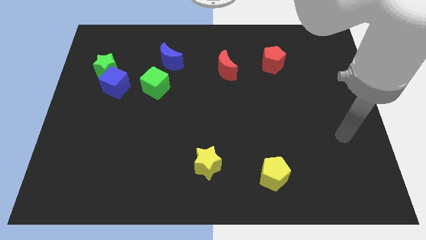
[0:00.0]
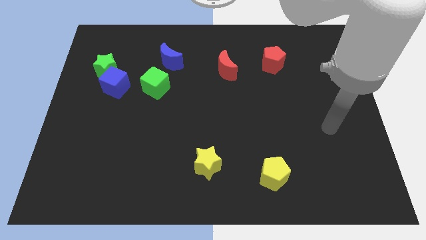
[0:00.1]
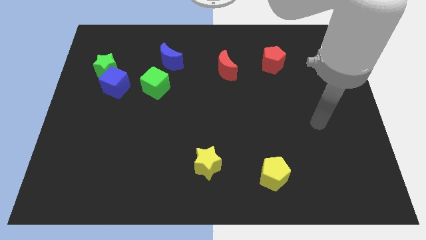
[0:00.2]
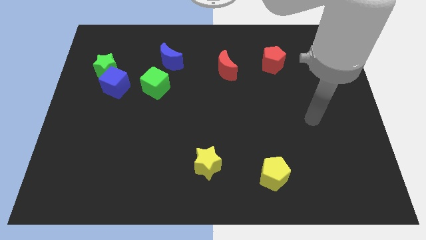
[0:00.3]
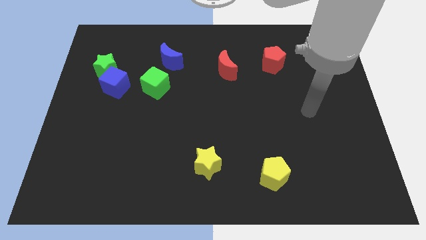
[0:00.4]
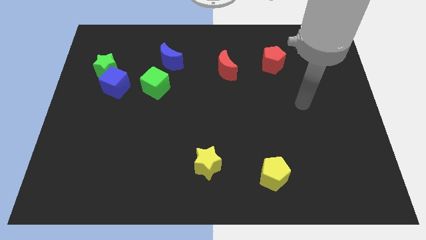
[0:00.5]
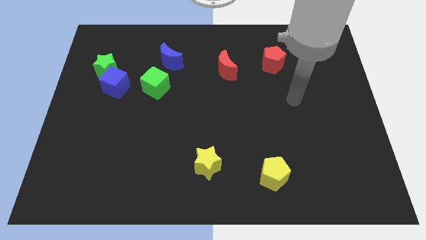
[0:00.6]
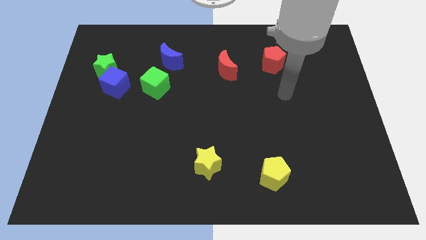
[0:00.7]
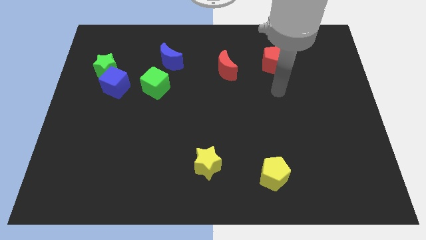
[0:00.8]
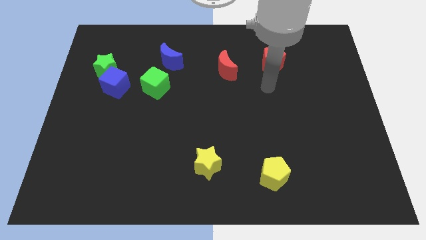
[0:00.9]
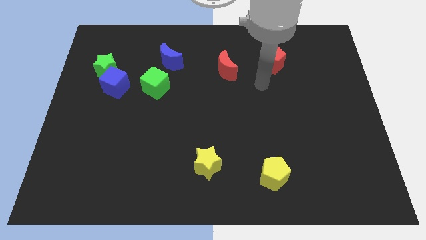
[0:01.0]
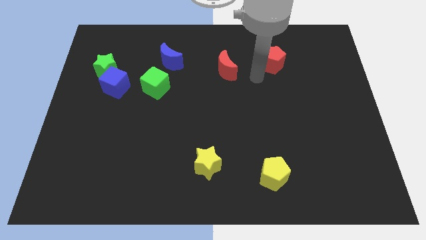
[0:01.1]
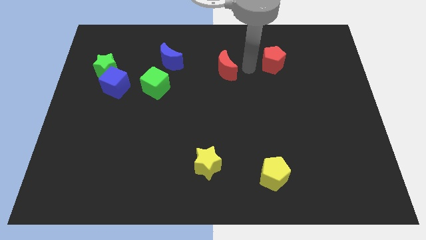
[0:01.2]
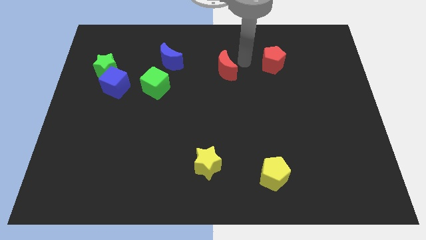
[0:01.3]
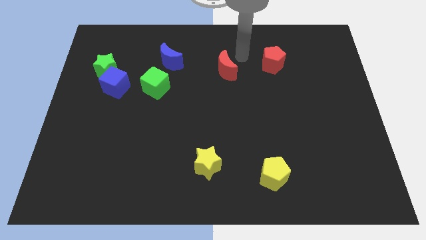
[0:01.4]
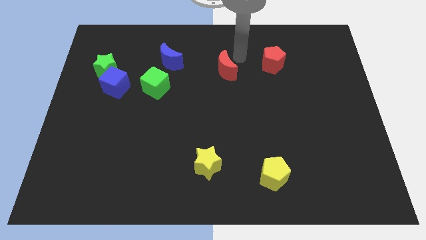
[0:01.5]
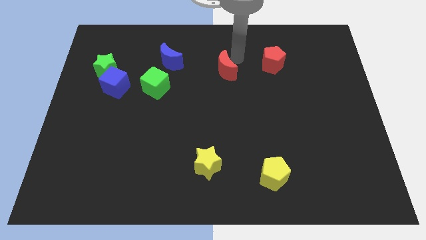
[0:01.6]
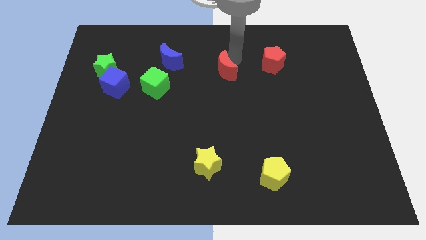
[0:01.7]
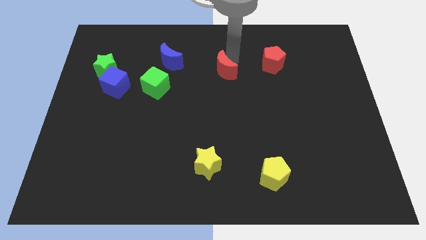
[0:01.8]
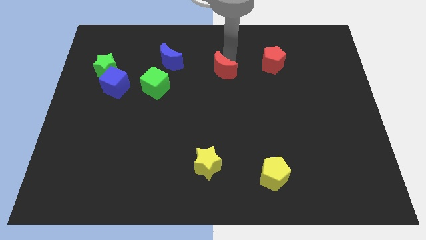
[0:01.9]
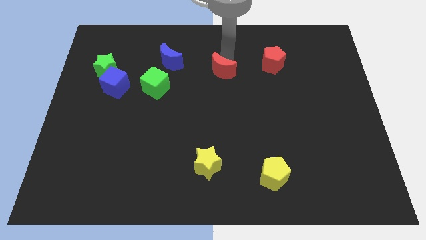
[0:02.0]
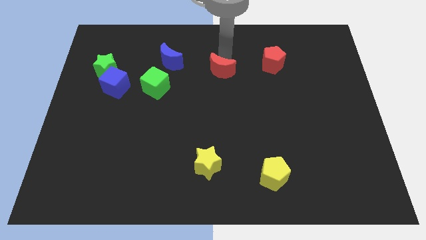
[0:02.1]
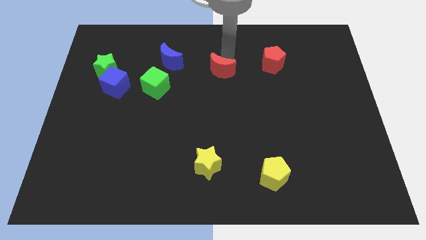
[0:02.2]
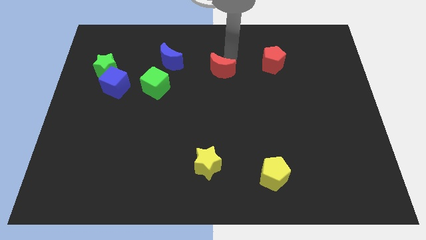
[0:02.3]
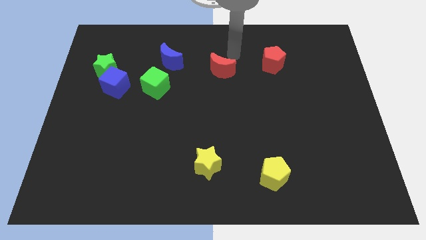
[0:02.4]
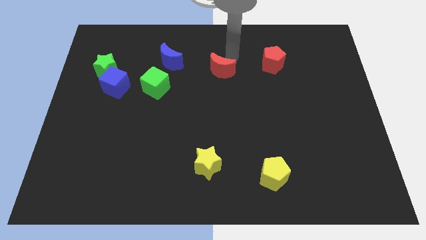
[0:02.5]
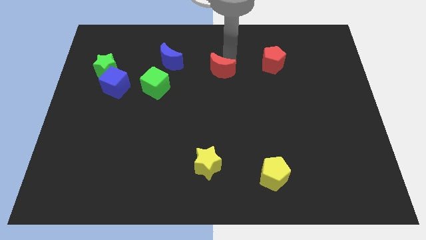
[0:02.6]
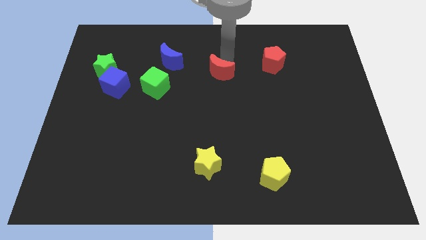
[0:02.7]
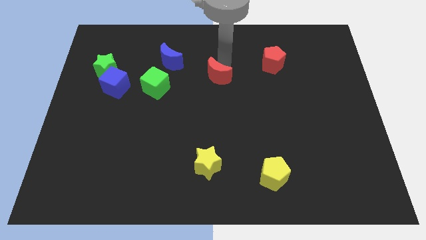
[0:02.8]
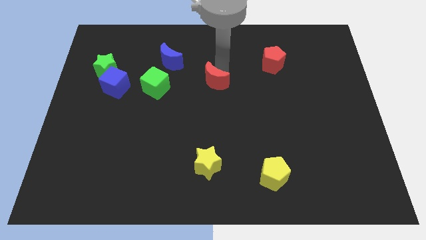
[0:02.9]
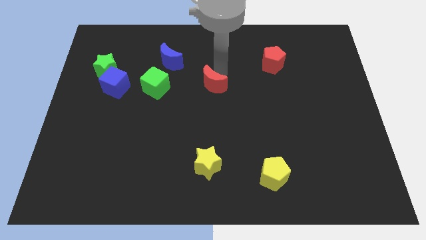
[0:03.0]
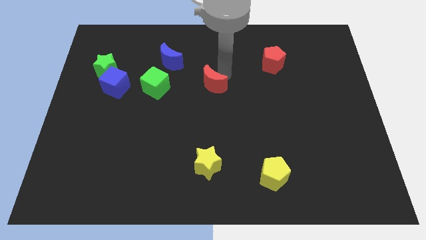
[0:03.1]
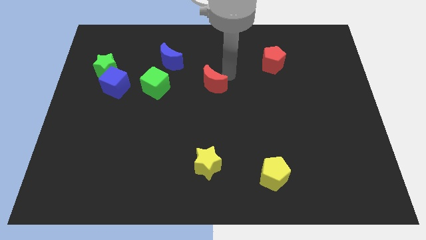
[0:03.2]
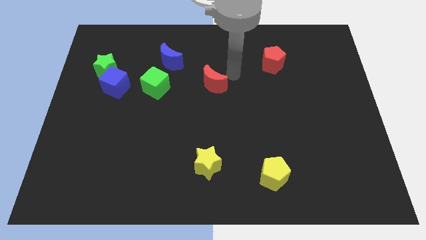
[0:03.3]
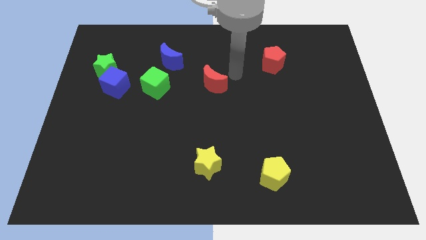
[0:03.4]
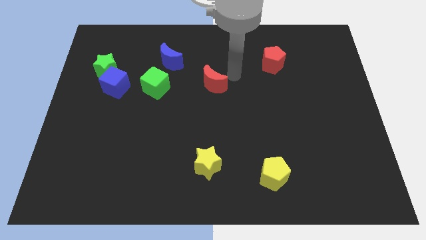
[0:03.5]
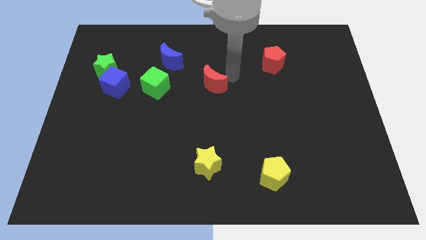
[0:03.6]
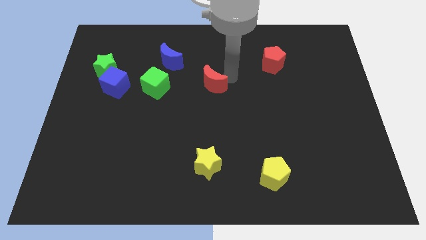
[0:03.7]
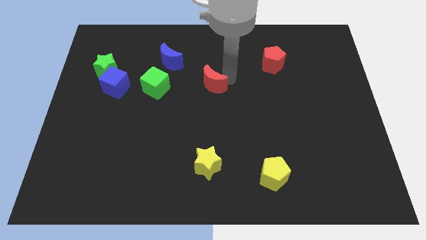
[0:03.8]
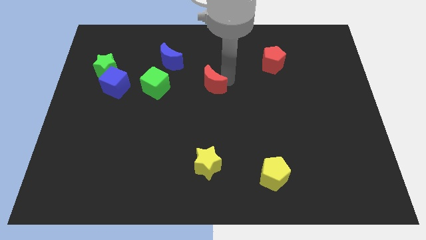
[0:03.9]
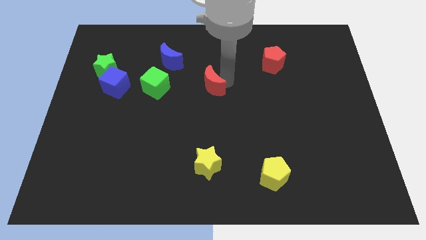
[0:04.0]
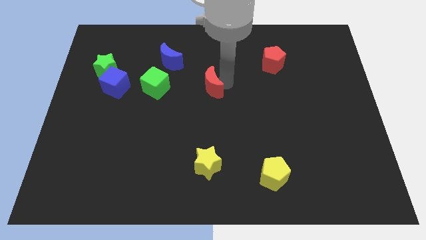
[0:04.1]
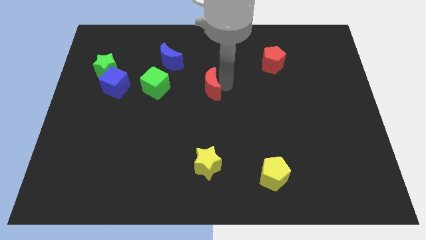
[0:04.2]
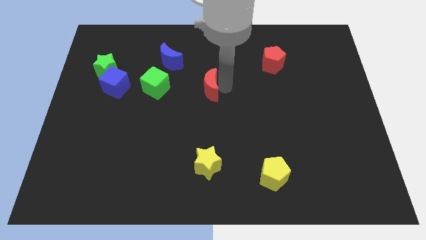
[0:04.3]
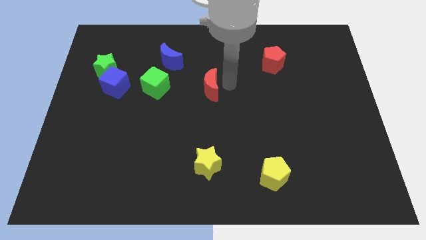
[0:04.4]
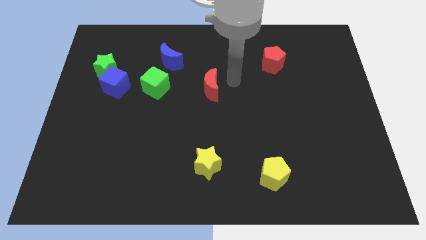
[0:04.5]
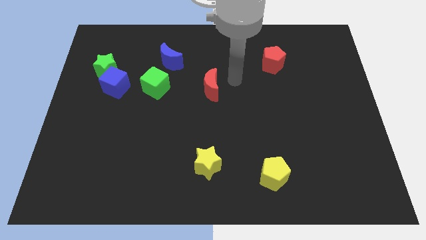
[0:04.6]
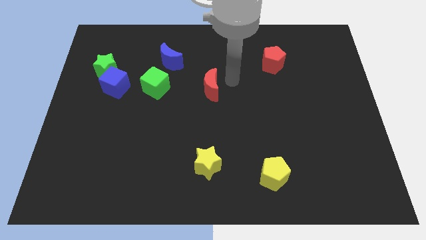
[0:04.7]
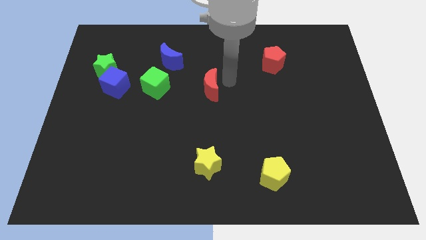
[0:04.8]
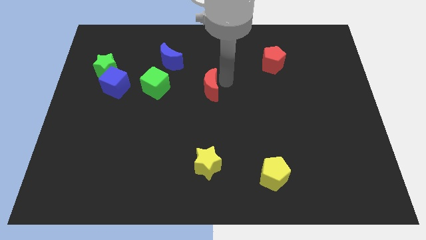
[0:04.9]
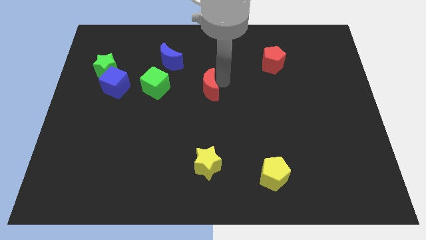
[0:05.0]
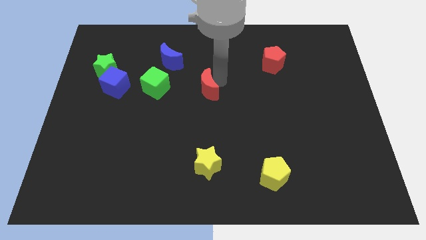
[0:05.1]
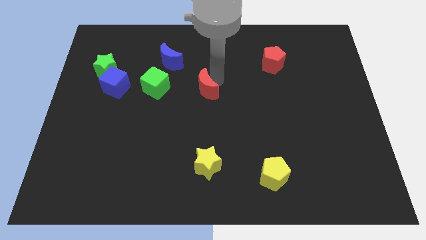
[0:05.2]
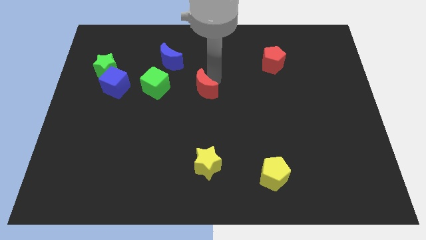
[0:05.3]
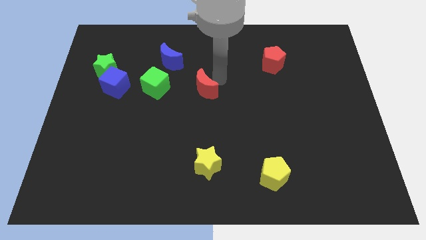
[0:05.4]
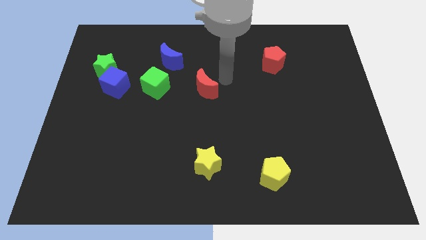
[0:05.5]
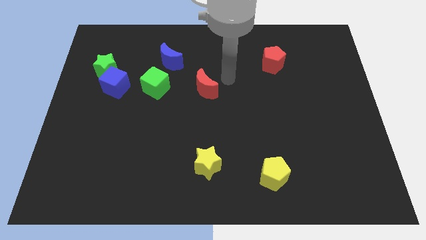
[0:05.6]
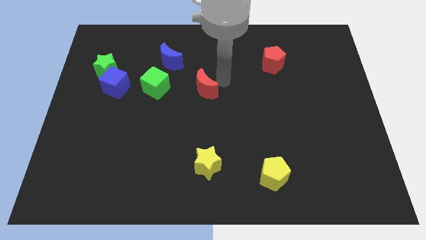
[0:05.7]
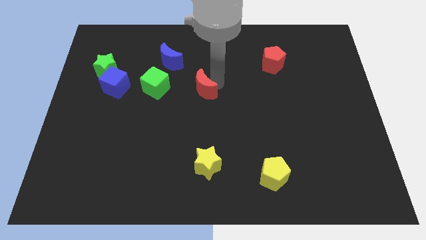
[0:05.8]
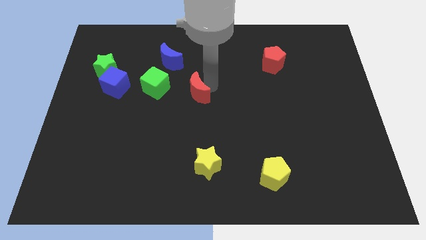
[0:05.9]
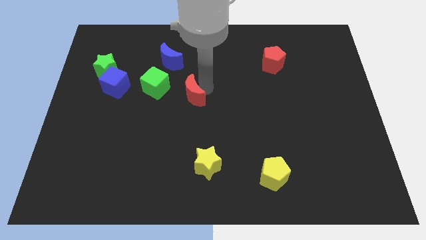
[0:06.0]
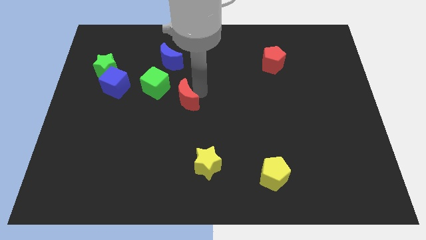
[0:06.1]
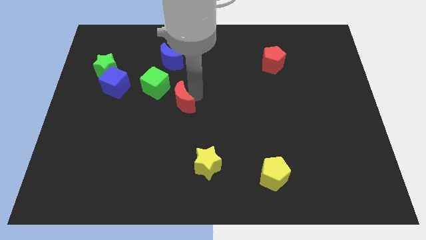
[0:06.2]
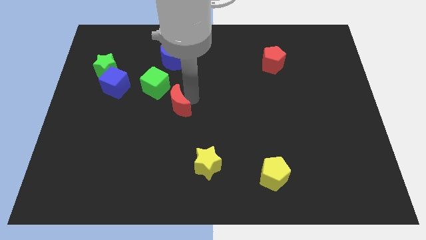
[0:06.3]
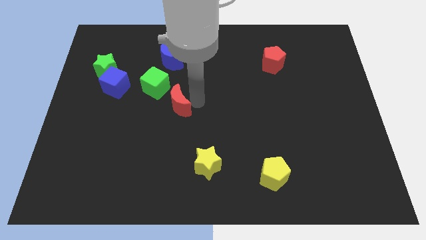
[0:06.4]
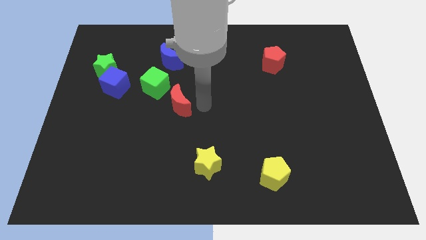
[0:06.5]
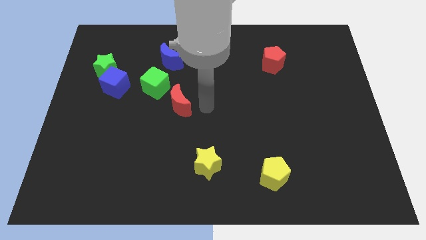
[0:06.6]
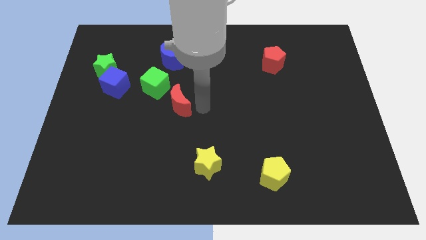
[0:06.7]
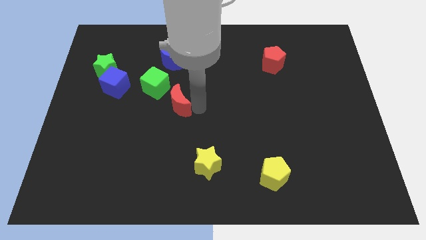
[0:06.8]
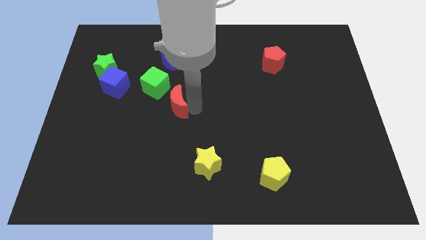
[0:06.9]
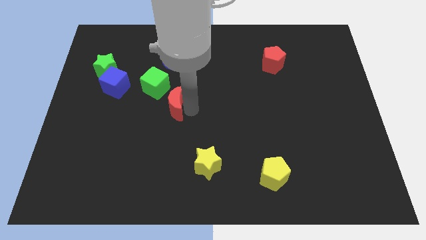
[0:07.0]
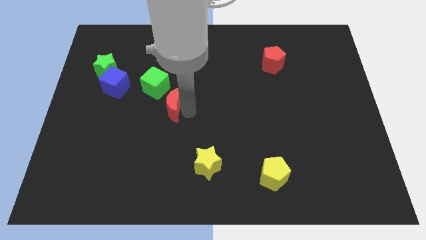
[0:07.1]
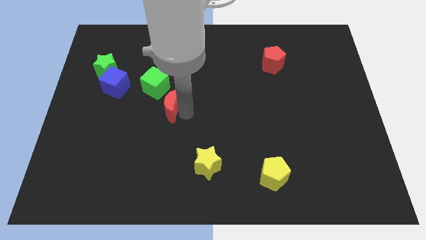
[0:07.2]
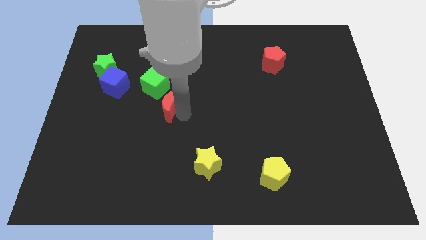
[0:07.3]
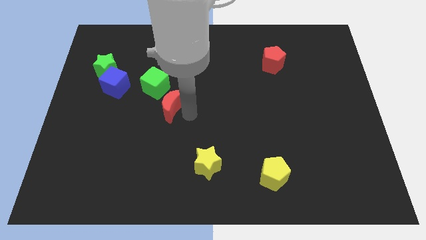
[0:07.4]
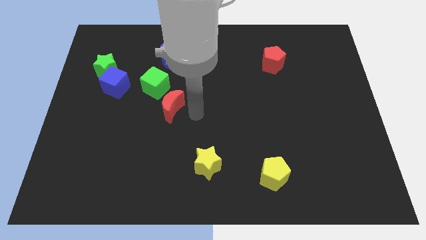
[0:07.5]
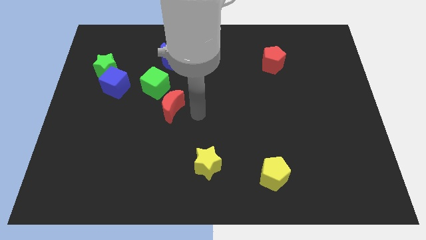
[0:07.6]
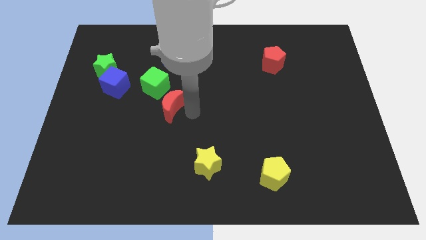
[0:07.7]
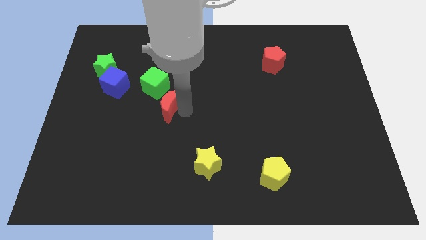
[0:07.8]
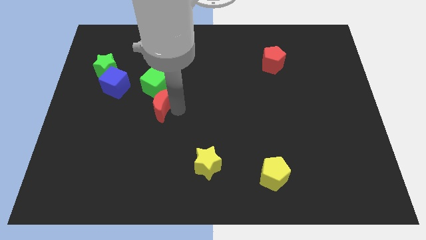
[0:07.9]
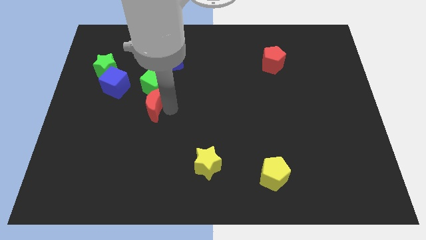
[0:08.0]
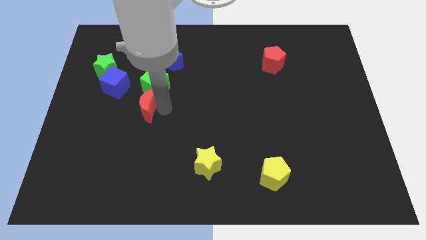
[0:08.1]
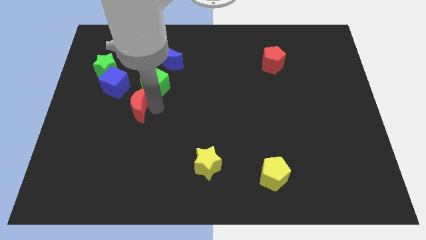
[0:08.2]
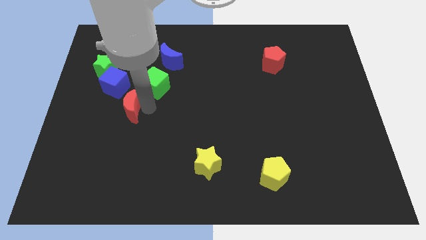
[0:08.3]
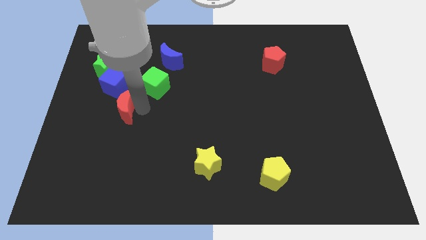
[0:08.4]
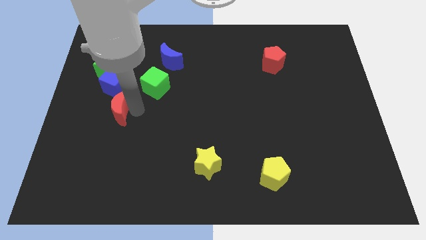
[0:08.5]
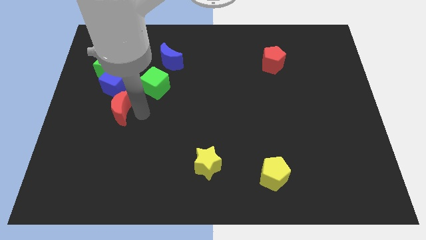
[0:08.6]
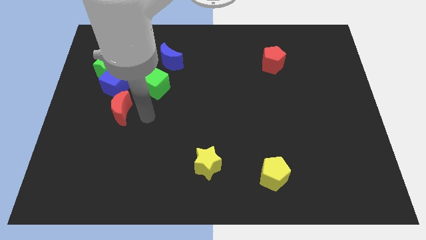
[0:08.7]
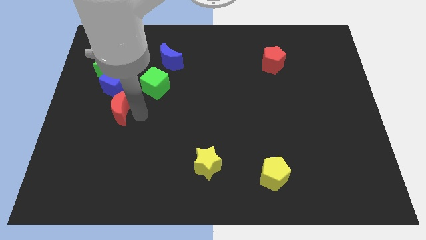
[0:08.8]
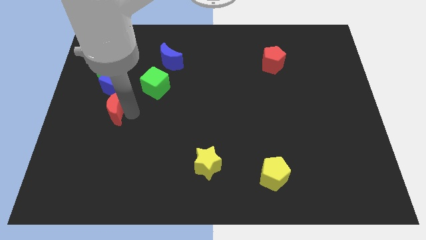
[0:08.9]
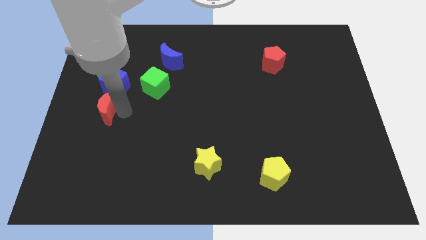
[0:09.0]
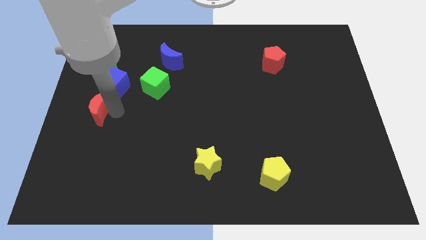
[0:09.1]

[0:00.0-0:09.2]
push the red moon to the left side of the board
